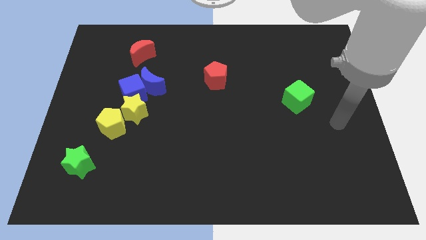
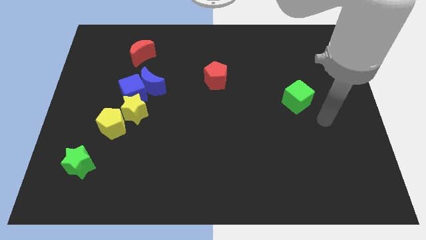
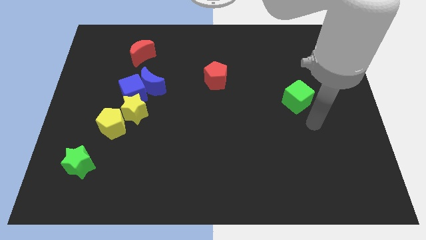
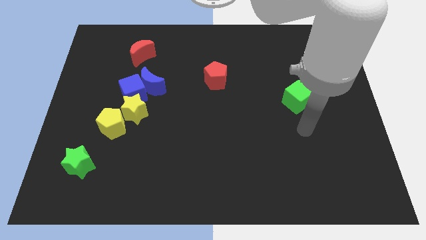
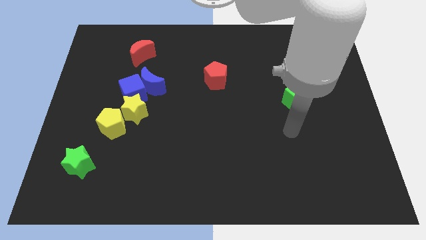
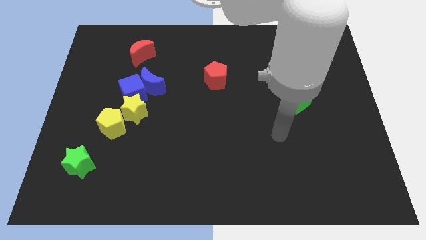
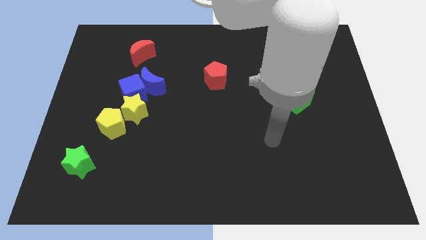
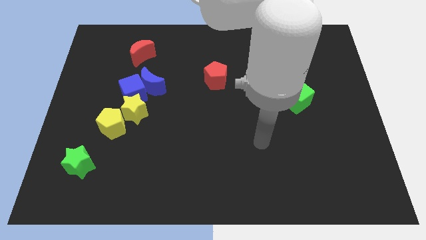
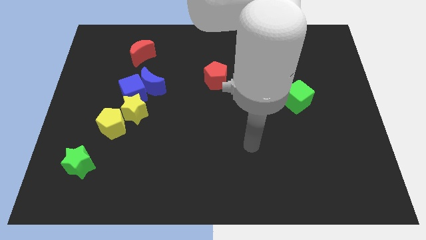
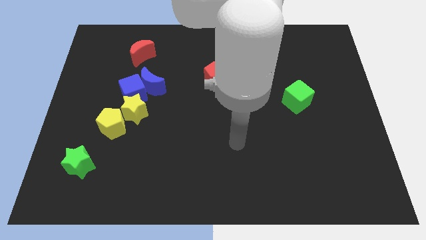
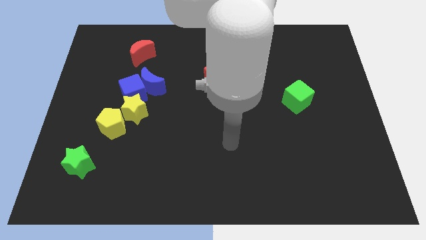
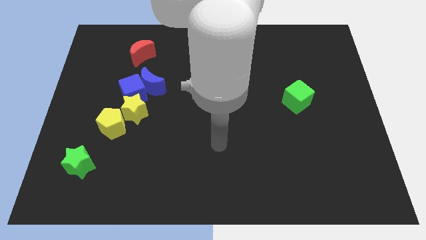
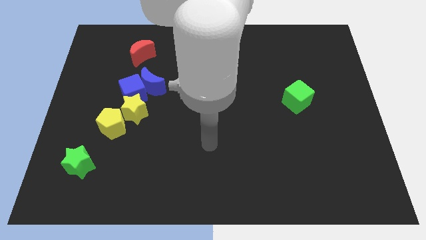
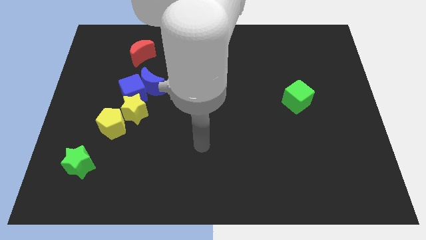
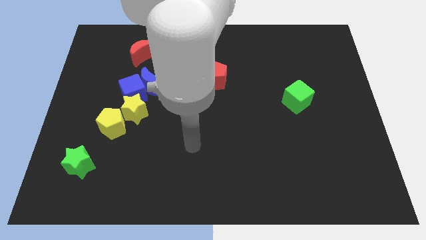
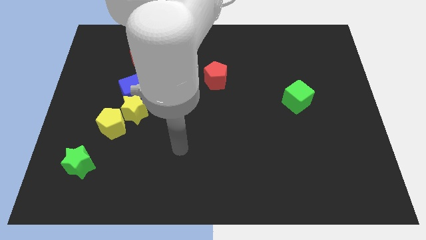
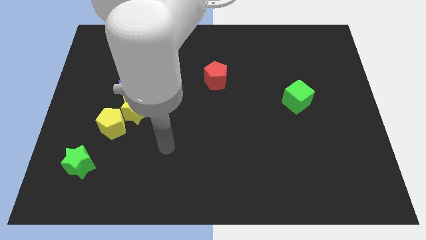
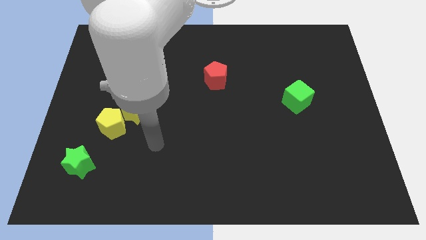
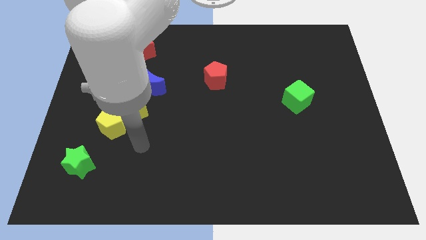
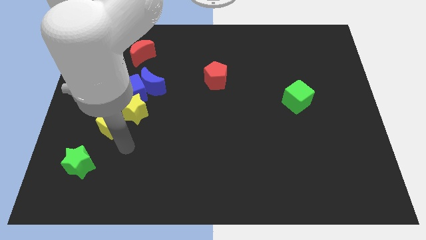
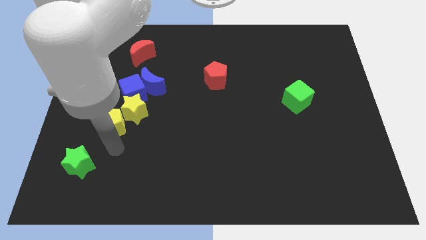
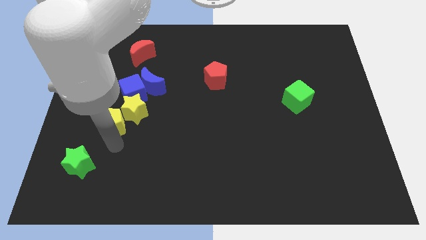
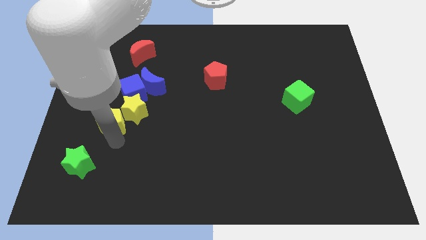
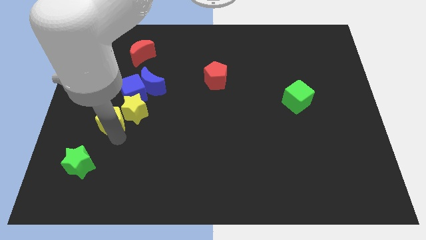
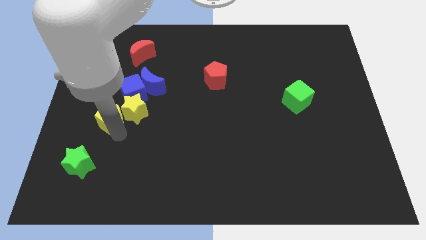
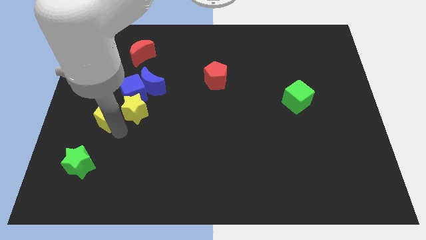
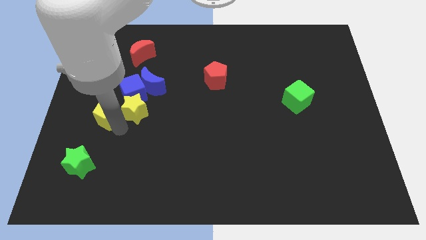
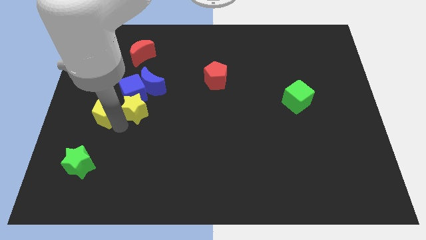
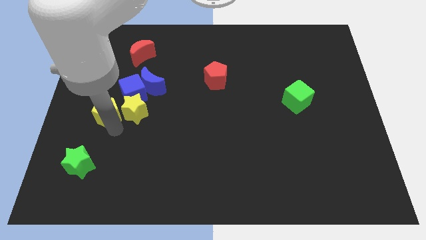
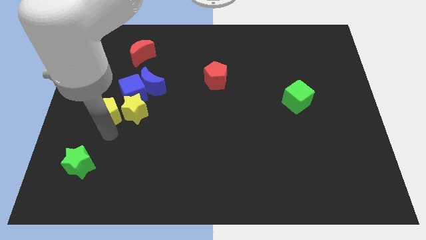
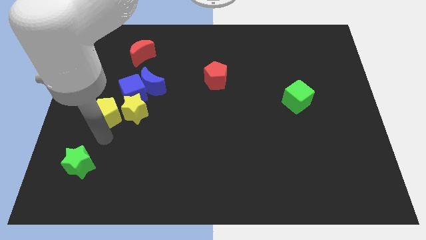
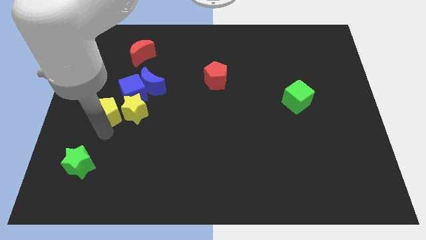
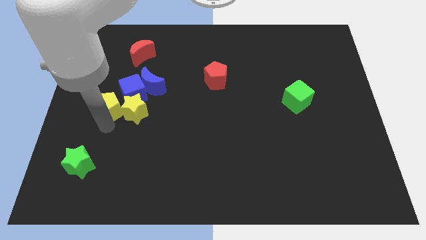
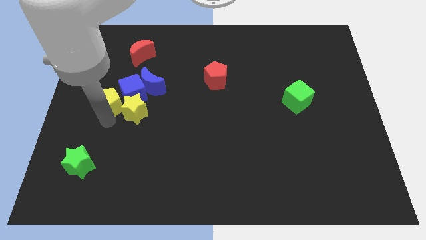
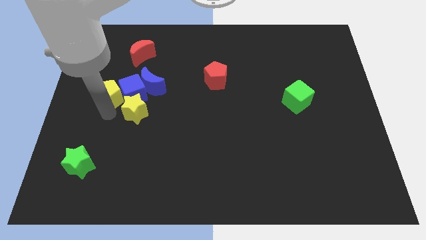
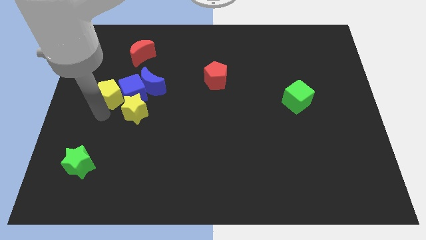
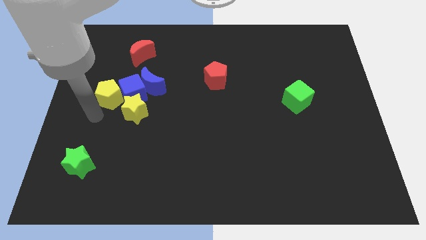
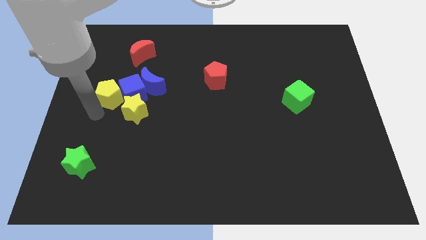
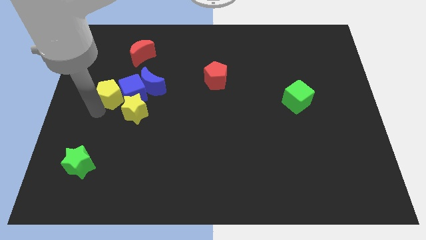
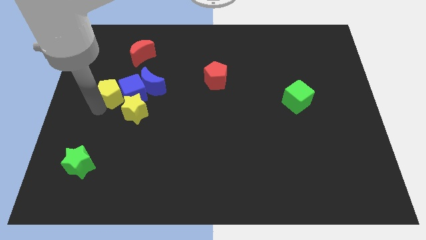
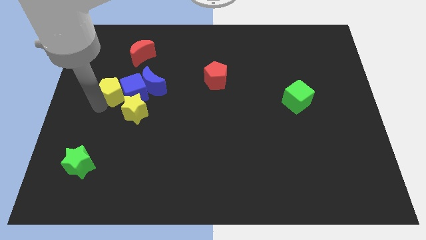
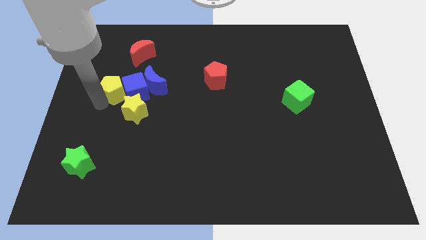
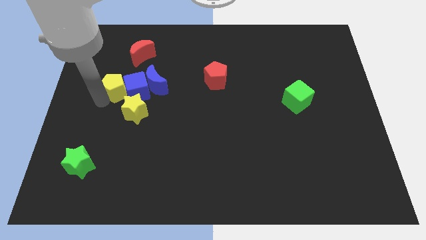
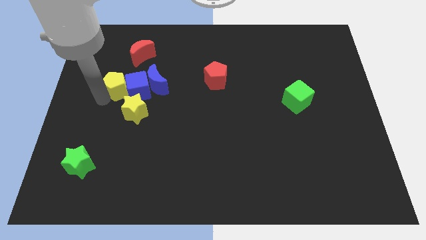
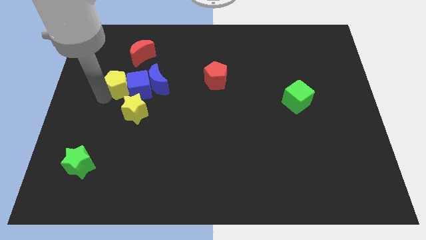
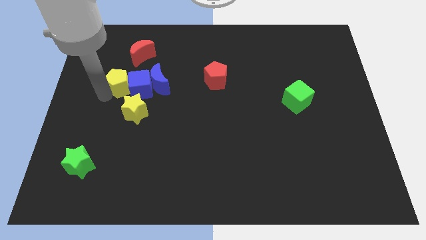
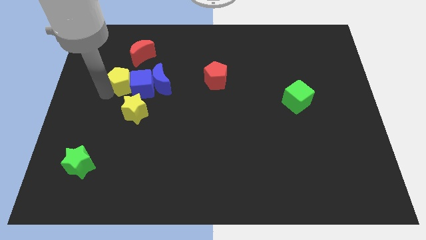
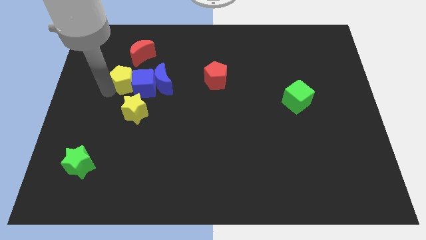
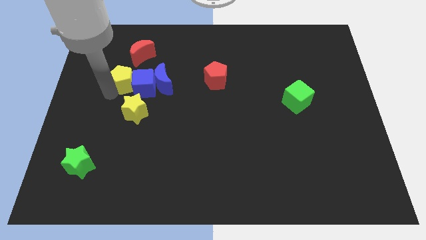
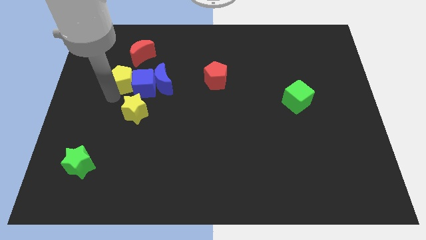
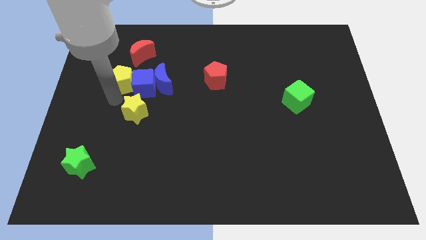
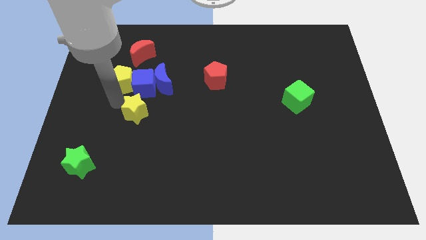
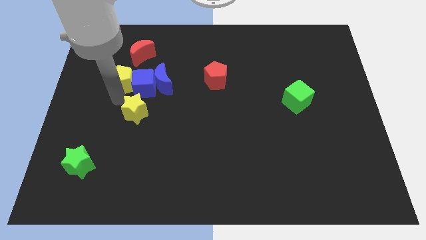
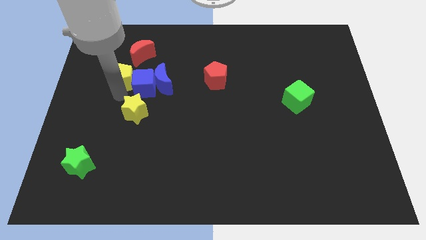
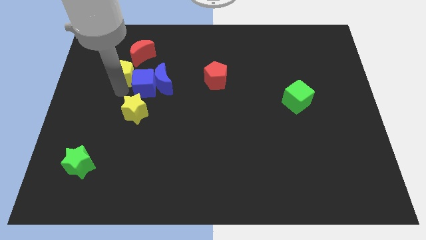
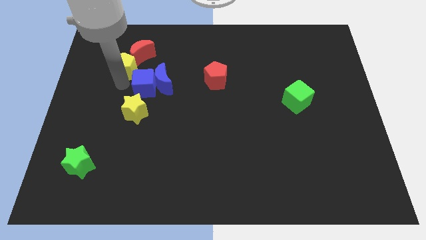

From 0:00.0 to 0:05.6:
put the yellow pentagon next to the red moon

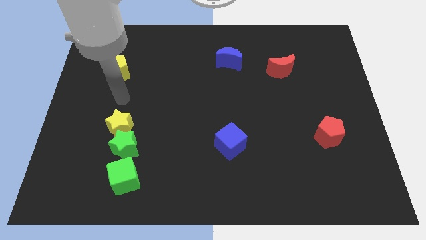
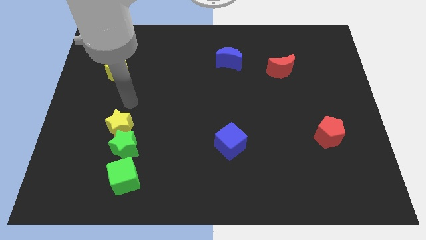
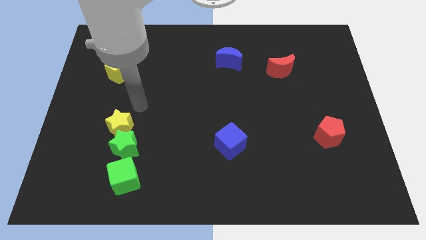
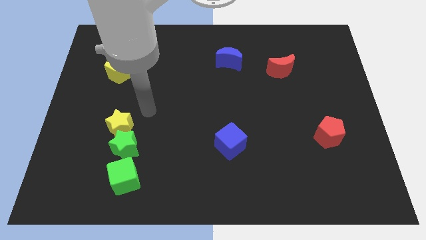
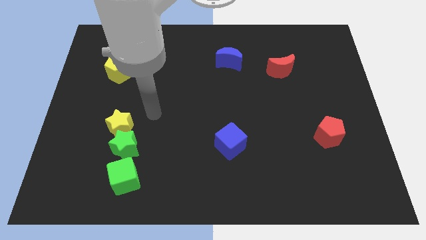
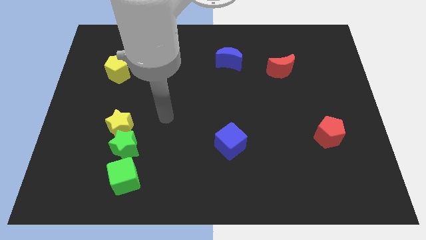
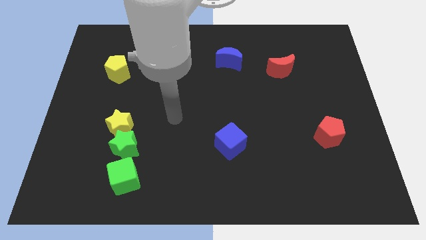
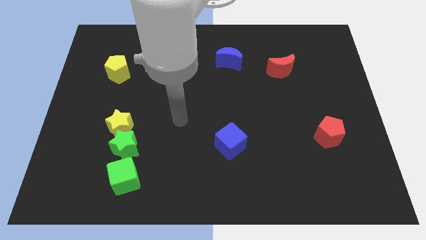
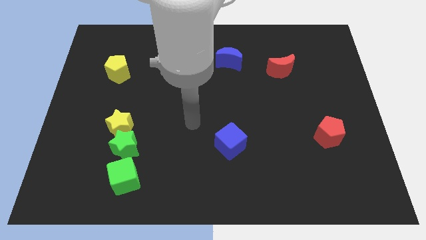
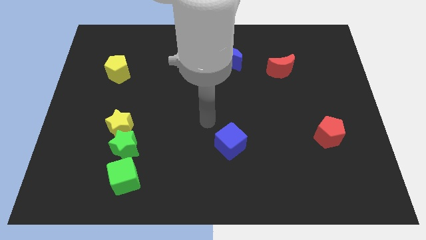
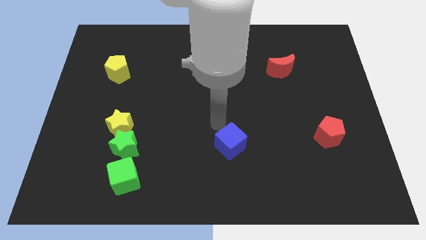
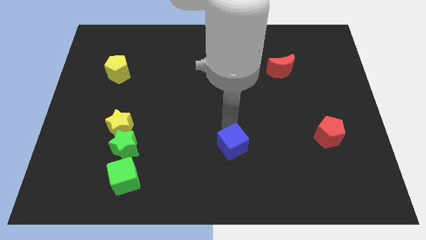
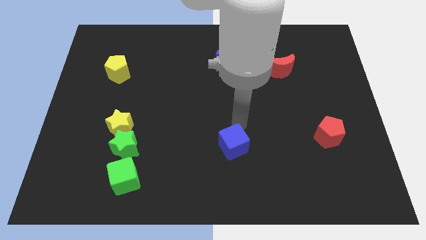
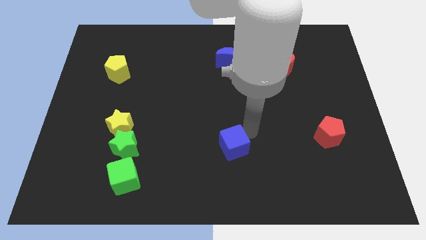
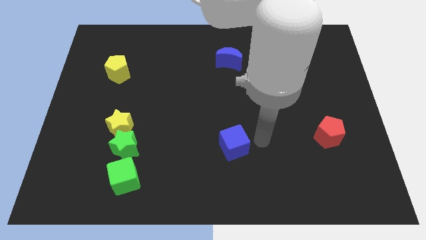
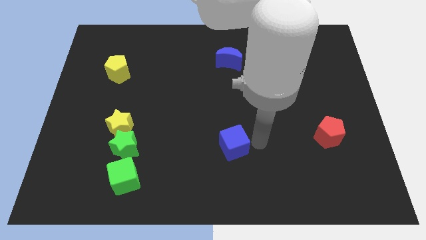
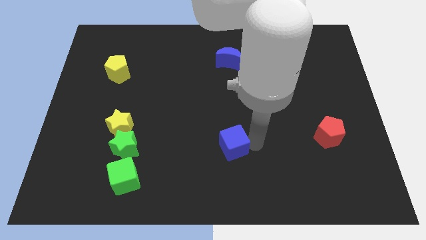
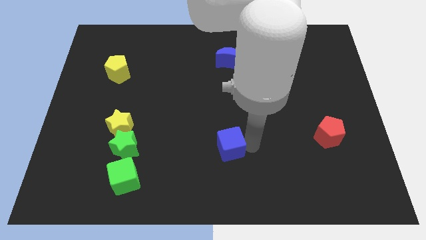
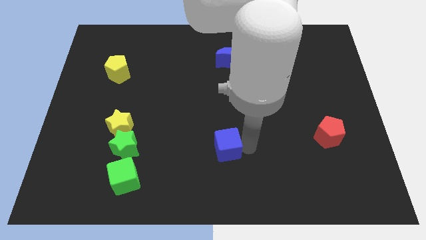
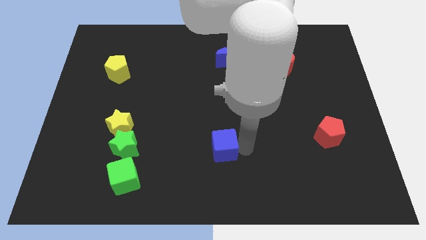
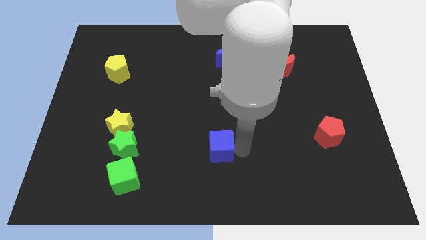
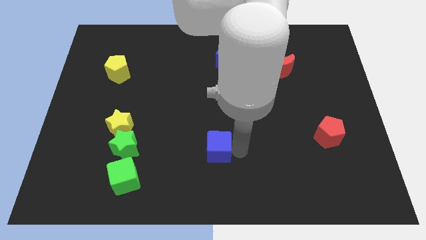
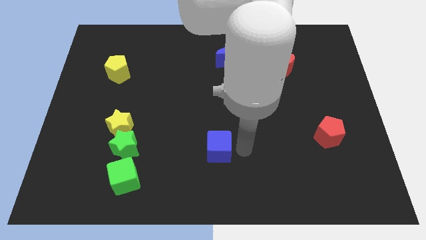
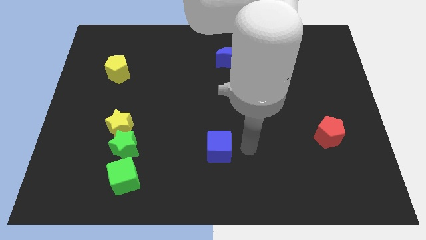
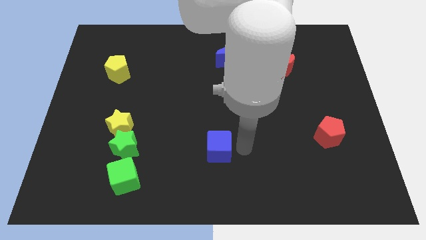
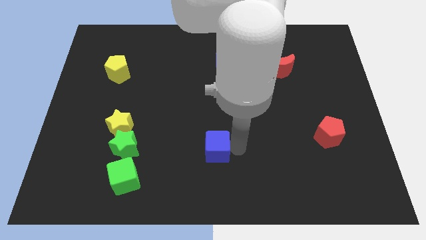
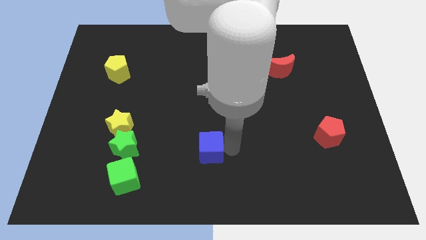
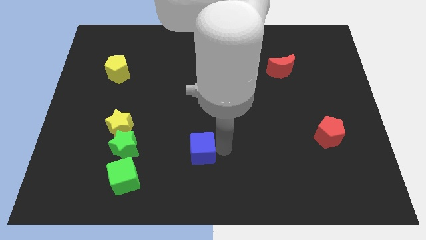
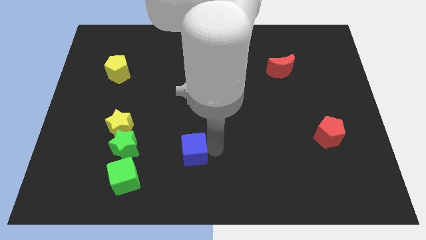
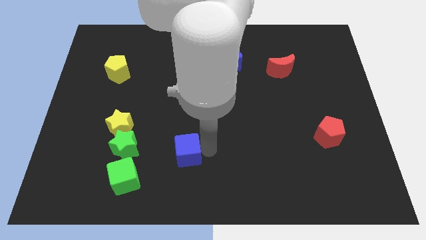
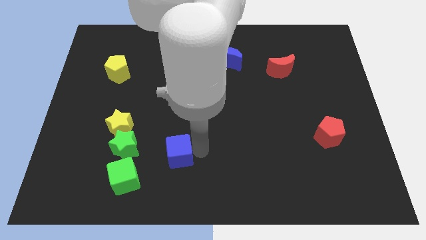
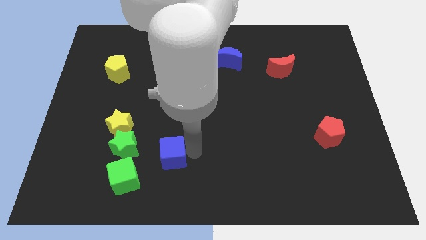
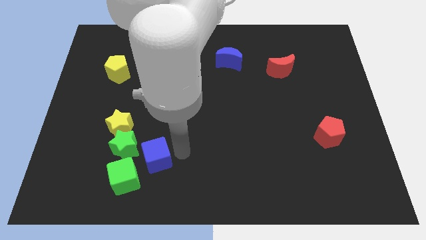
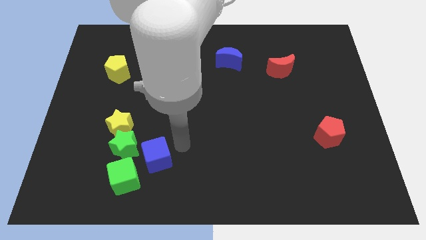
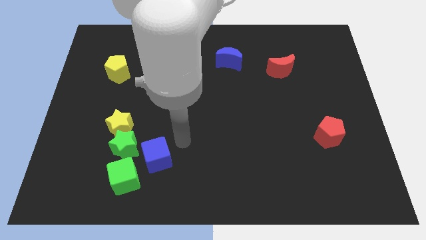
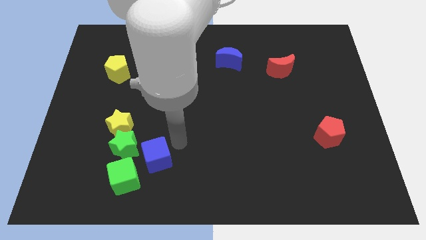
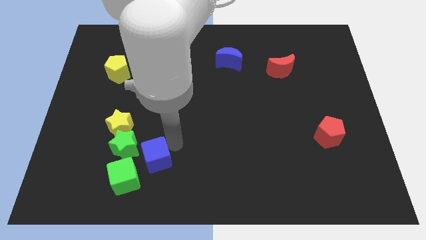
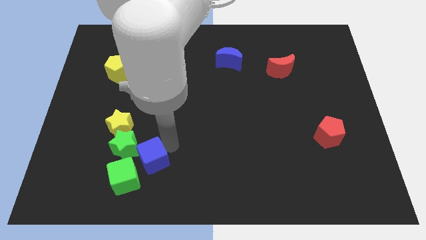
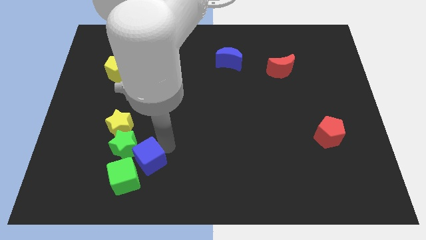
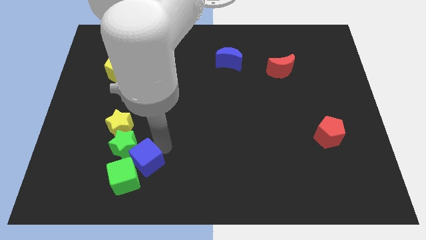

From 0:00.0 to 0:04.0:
put the blue cube close to the green cube
